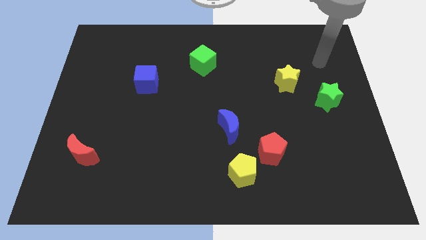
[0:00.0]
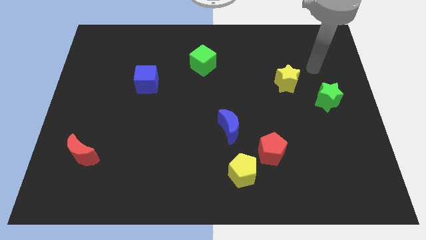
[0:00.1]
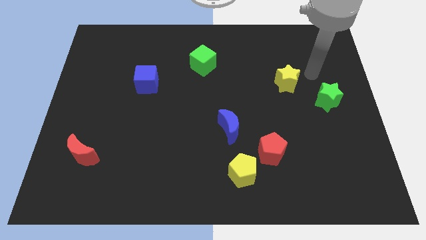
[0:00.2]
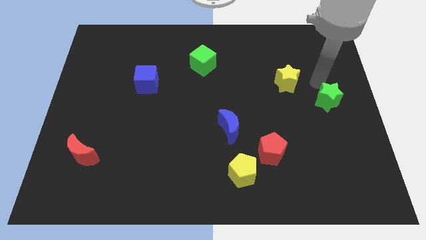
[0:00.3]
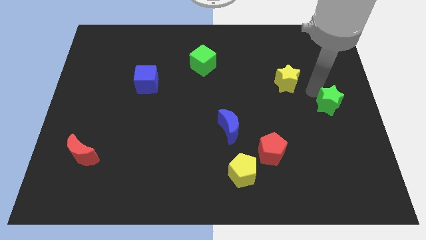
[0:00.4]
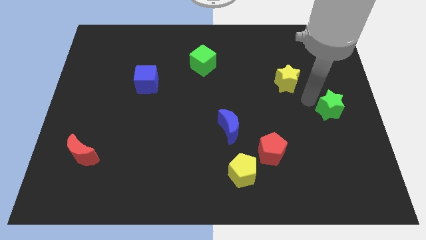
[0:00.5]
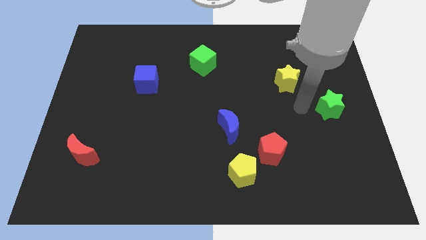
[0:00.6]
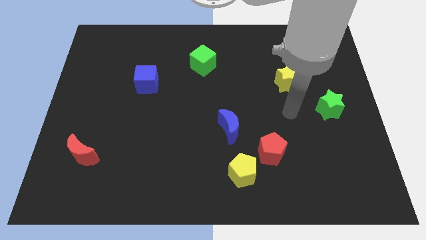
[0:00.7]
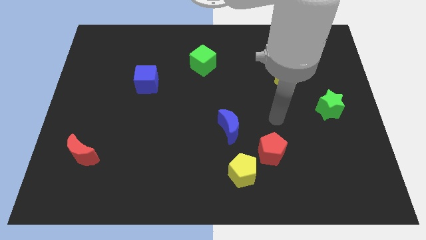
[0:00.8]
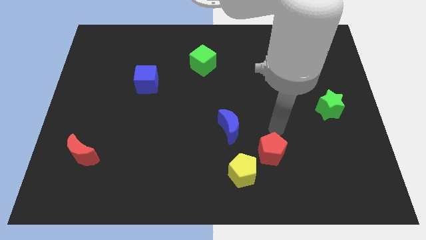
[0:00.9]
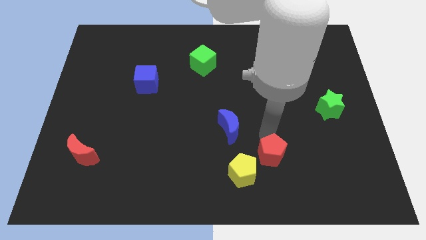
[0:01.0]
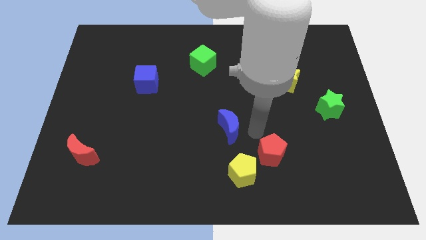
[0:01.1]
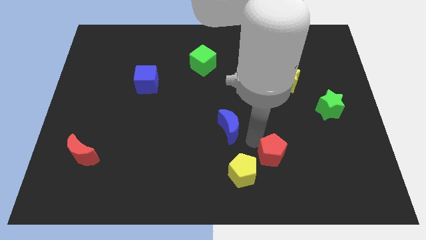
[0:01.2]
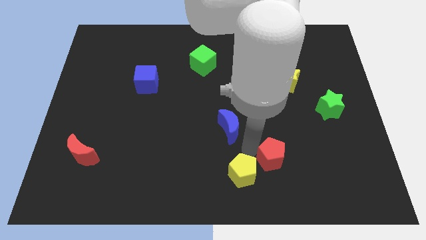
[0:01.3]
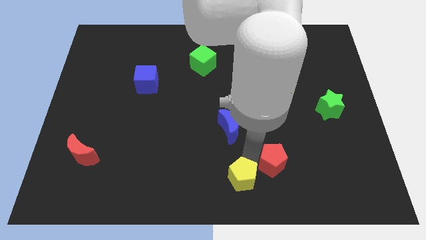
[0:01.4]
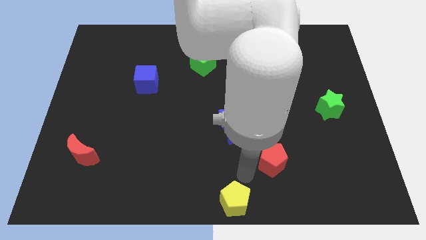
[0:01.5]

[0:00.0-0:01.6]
pull the red pentagon apart from the yellow pentagon

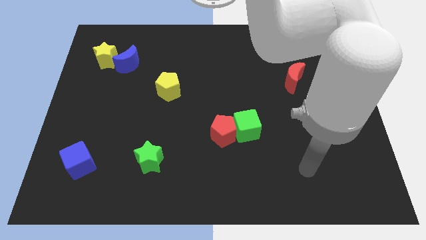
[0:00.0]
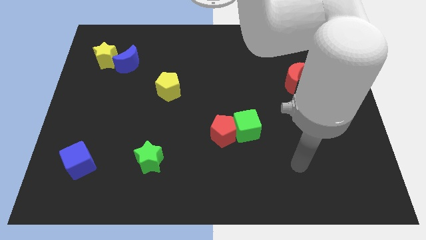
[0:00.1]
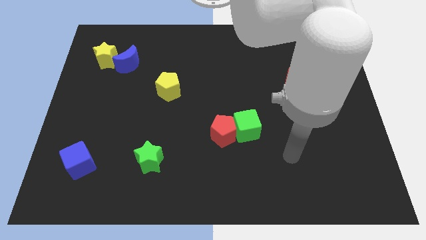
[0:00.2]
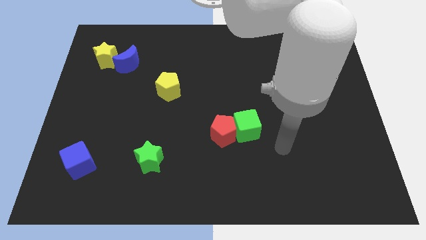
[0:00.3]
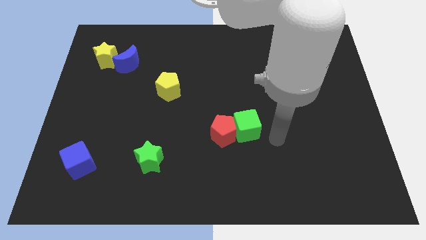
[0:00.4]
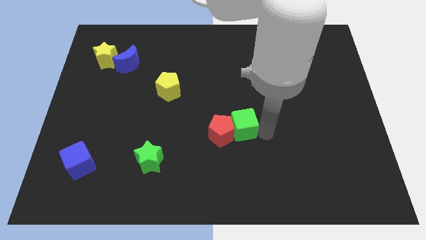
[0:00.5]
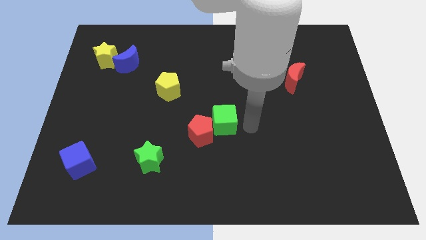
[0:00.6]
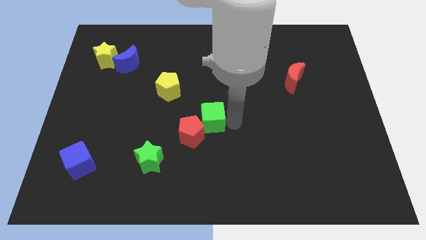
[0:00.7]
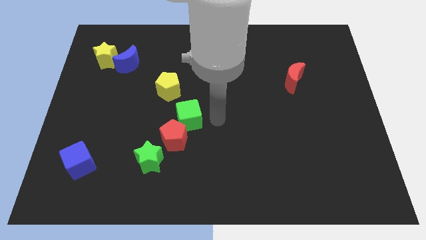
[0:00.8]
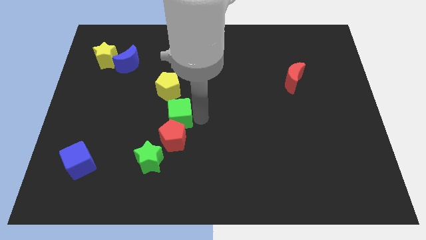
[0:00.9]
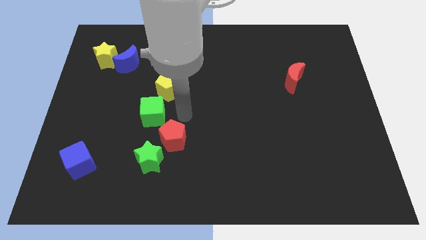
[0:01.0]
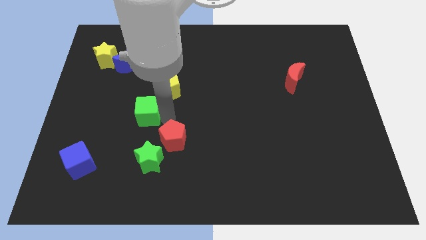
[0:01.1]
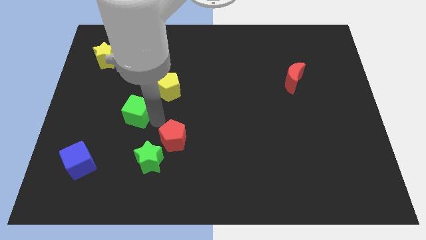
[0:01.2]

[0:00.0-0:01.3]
move the red pentagon away from the green cube

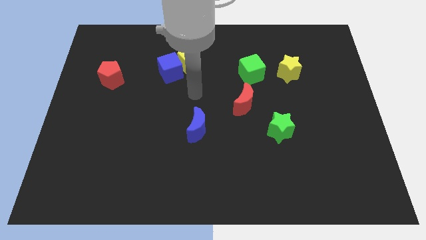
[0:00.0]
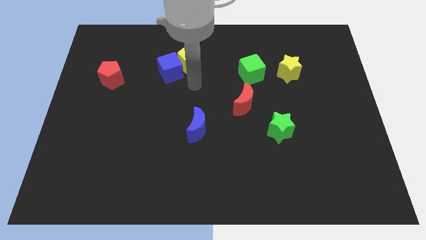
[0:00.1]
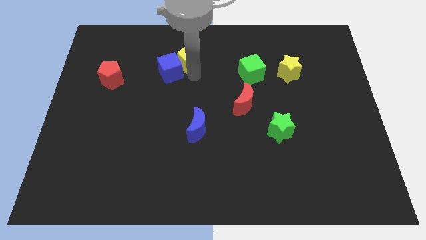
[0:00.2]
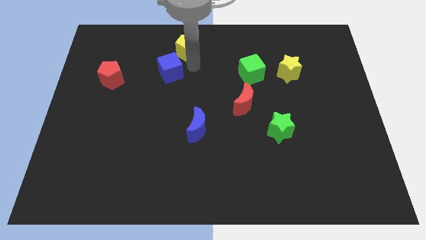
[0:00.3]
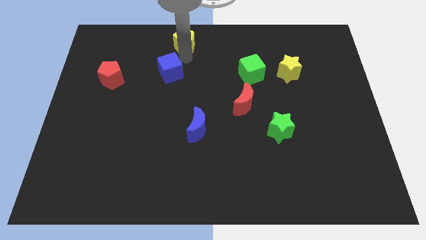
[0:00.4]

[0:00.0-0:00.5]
move the blue cube away from the yellow pentagon

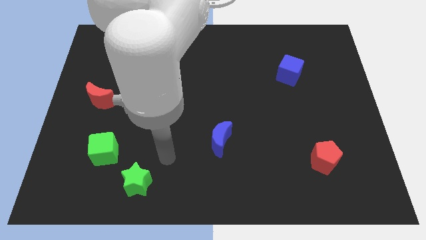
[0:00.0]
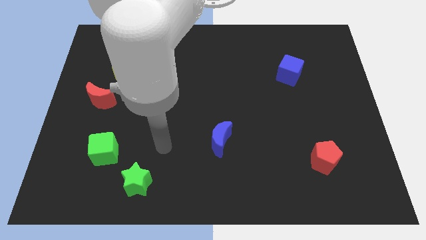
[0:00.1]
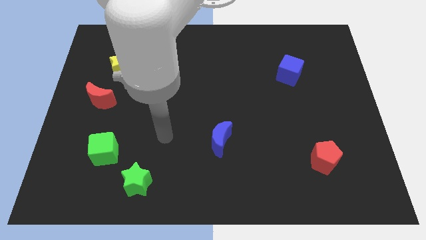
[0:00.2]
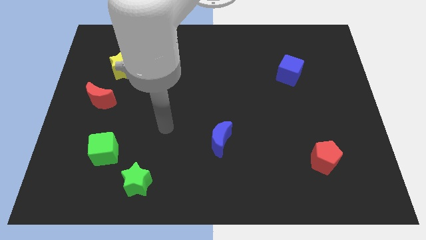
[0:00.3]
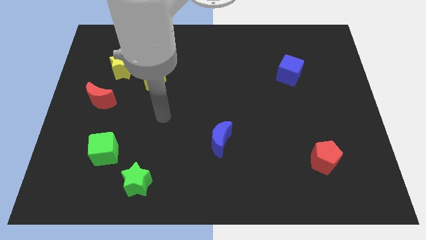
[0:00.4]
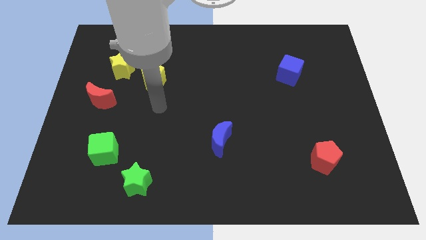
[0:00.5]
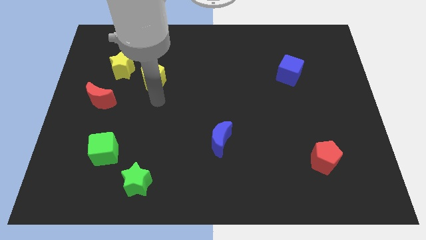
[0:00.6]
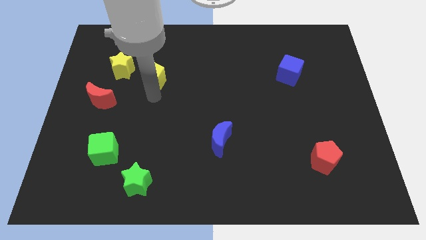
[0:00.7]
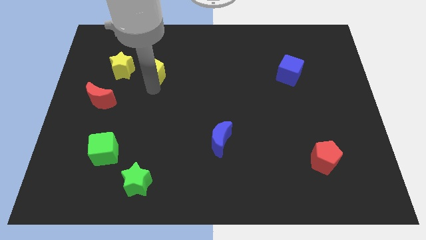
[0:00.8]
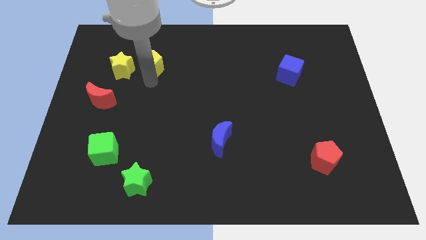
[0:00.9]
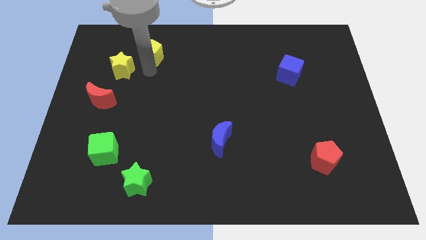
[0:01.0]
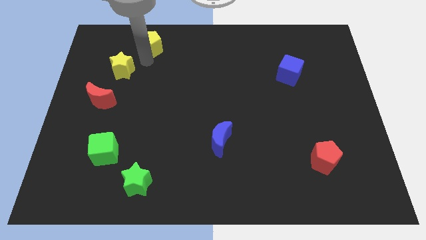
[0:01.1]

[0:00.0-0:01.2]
pull the yellow star apart from the yellow pentagon

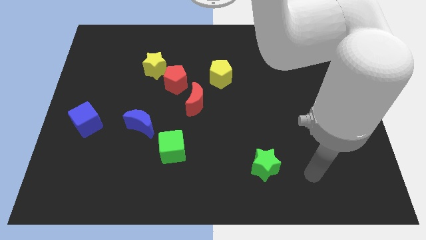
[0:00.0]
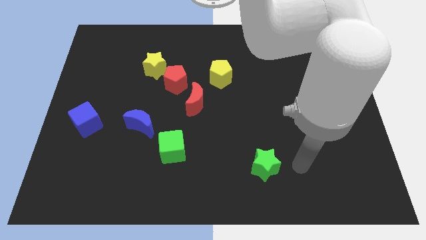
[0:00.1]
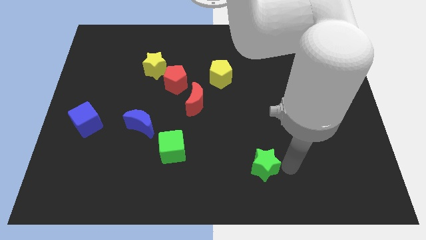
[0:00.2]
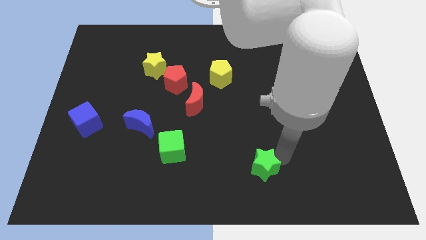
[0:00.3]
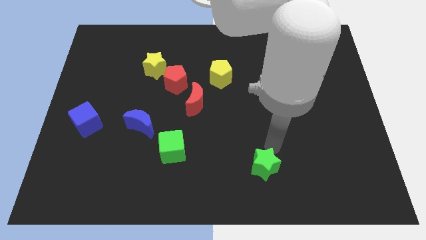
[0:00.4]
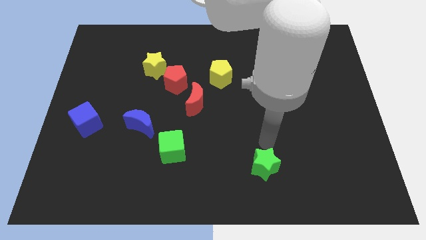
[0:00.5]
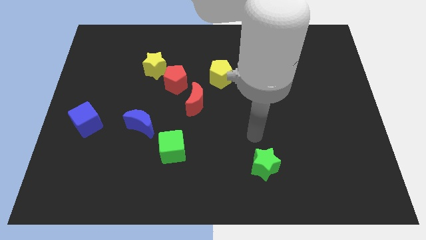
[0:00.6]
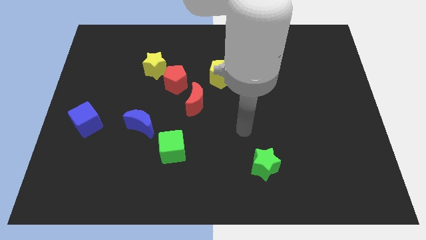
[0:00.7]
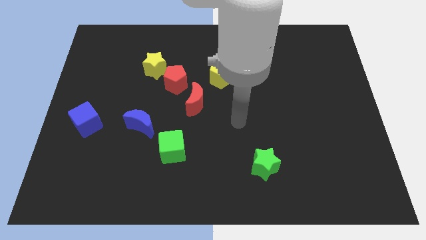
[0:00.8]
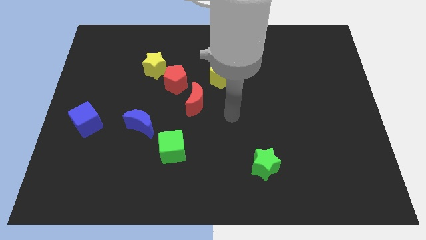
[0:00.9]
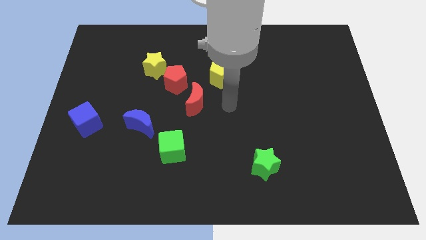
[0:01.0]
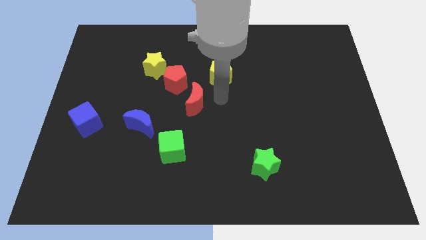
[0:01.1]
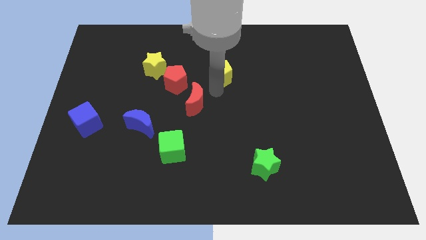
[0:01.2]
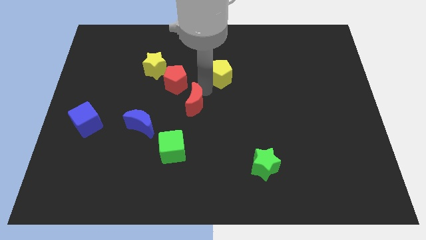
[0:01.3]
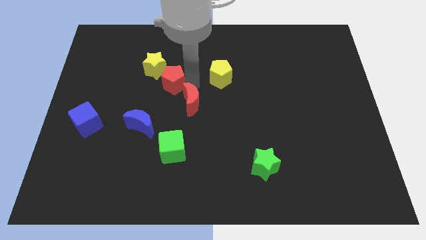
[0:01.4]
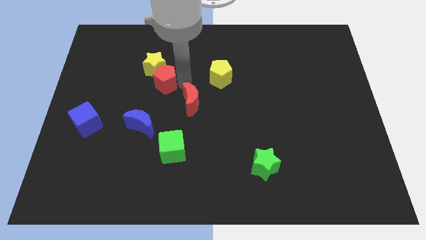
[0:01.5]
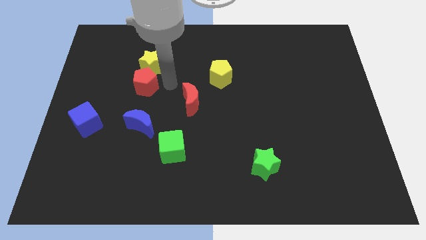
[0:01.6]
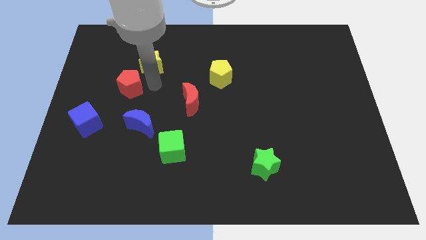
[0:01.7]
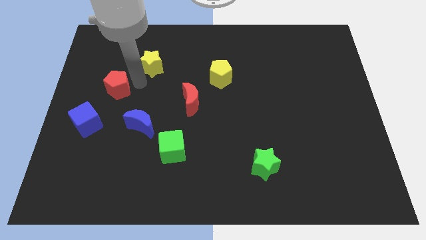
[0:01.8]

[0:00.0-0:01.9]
separate the yellow star from the red pentagon

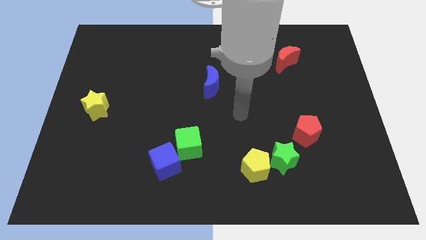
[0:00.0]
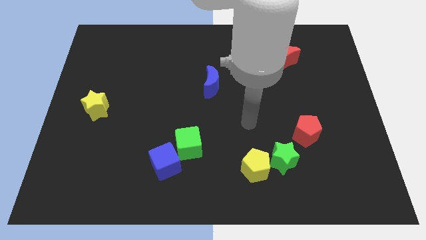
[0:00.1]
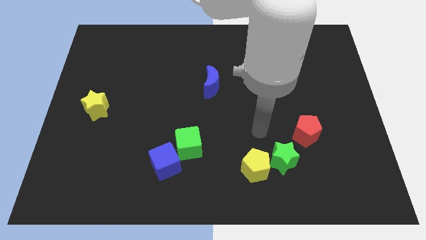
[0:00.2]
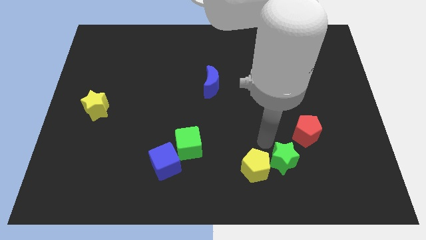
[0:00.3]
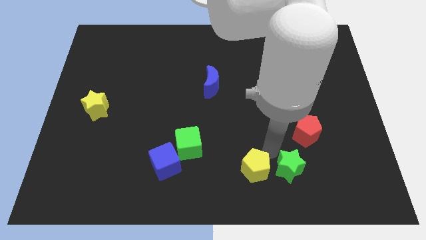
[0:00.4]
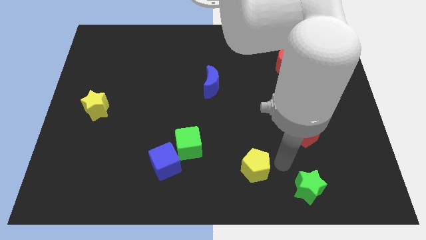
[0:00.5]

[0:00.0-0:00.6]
separate the yellow pentagon from the green star

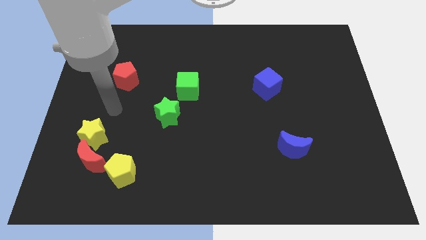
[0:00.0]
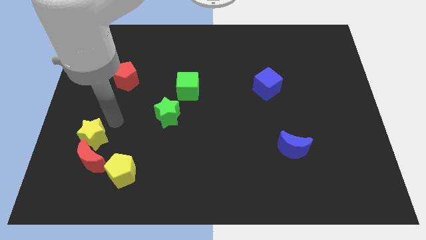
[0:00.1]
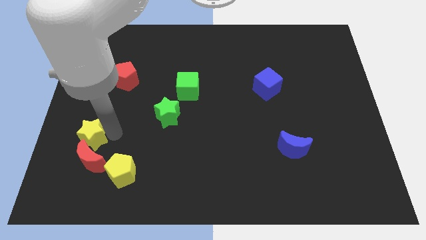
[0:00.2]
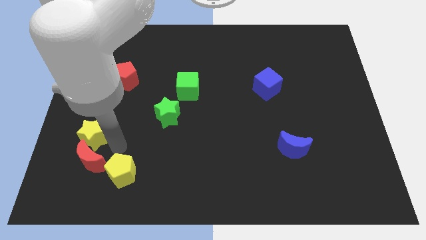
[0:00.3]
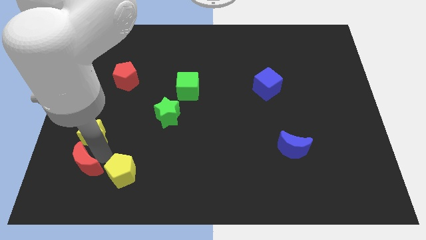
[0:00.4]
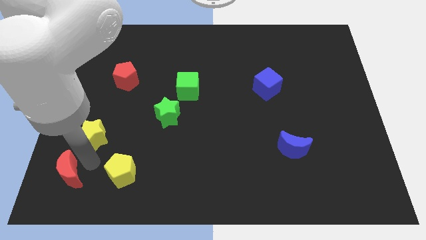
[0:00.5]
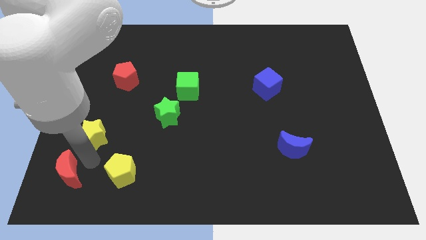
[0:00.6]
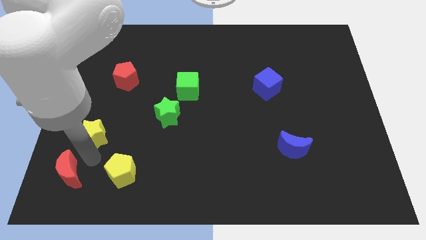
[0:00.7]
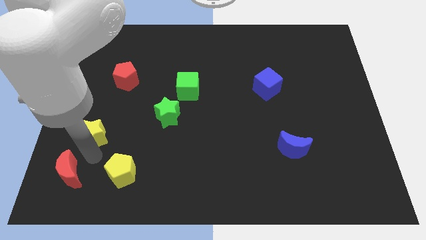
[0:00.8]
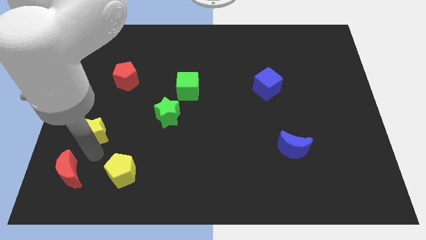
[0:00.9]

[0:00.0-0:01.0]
move the yellow star away from the red moon

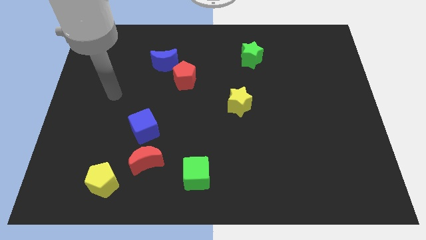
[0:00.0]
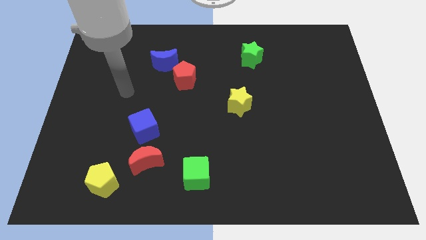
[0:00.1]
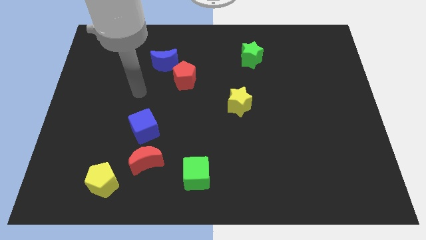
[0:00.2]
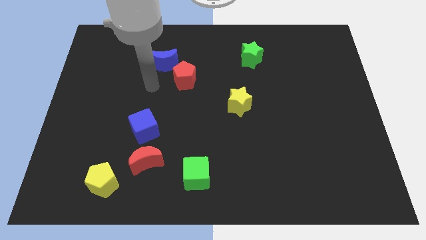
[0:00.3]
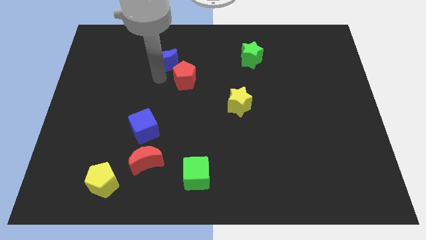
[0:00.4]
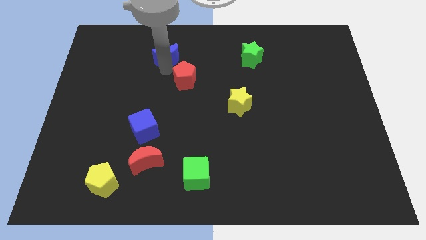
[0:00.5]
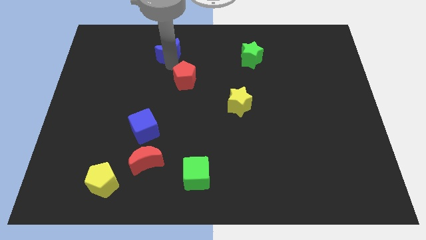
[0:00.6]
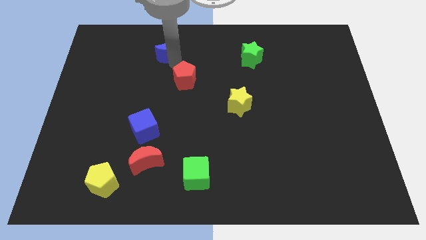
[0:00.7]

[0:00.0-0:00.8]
move the red pentagon away from the blue moon

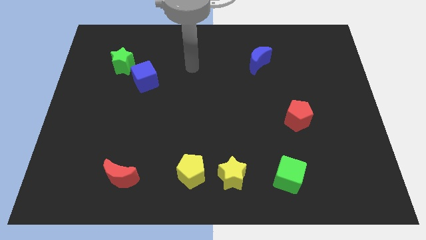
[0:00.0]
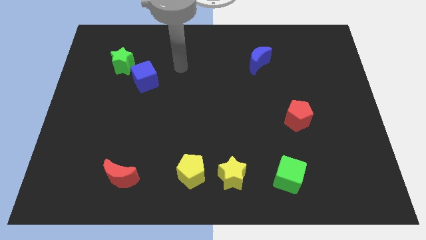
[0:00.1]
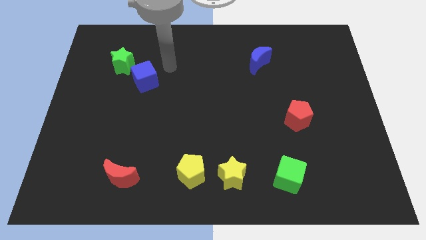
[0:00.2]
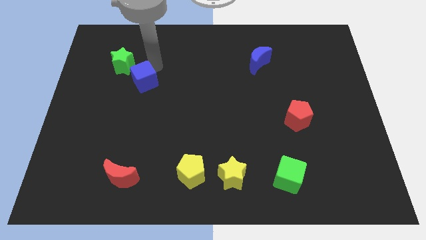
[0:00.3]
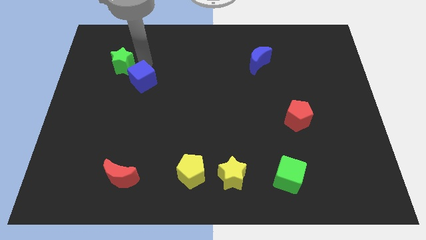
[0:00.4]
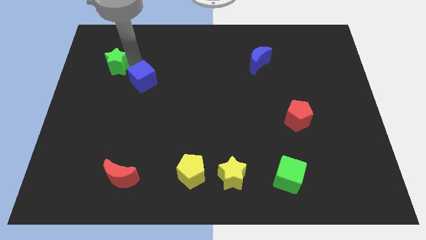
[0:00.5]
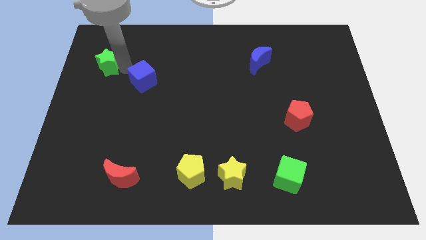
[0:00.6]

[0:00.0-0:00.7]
separate the blue cube from the green star
